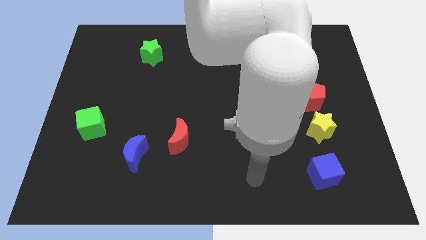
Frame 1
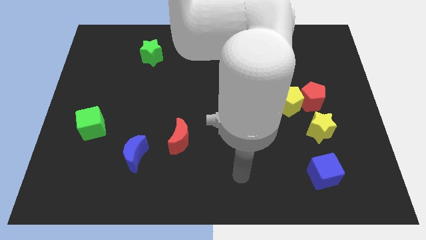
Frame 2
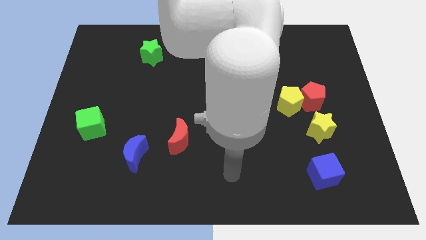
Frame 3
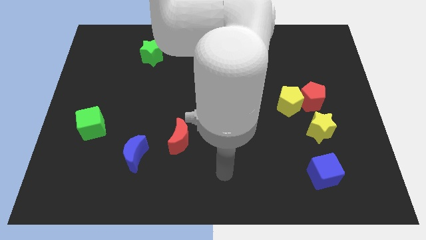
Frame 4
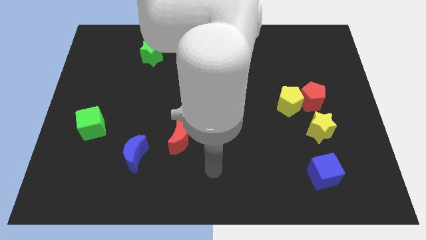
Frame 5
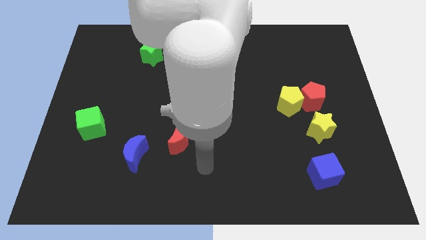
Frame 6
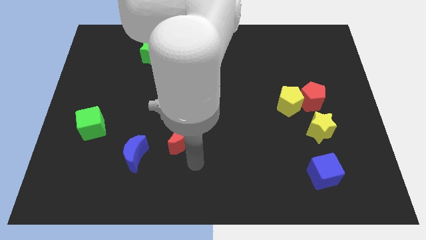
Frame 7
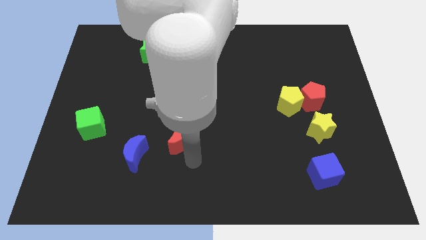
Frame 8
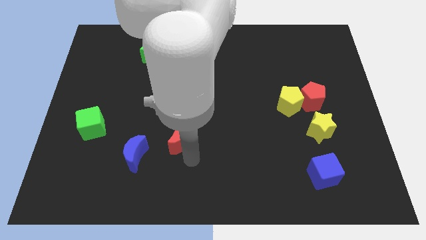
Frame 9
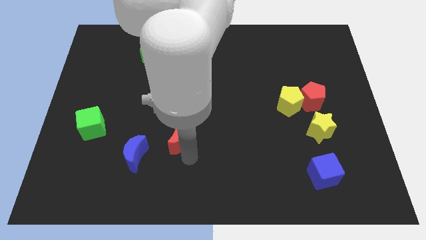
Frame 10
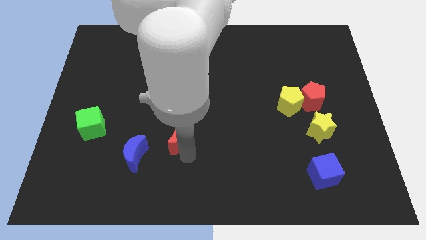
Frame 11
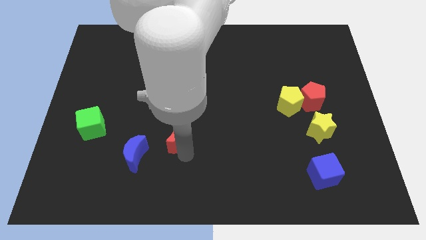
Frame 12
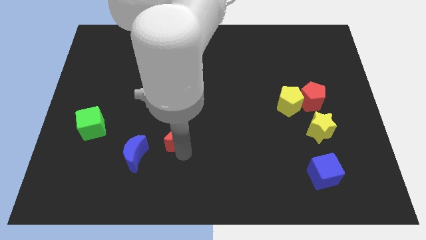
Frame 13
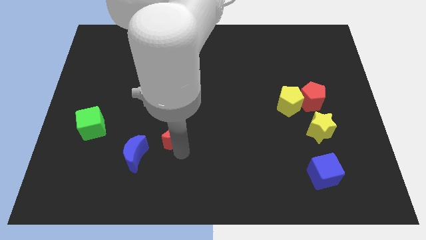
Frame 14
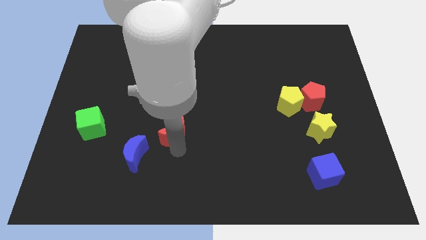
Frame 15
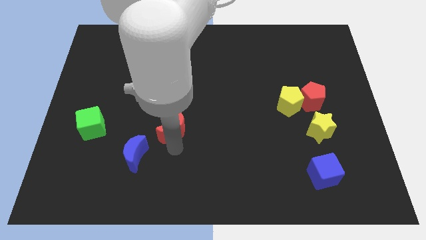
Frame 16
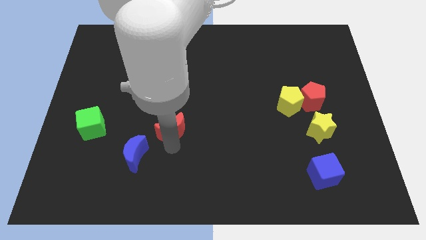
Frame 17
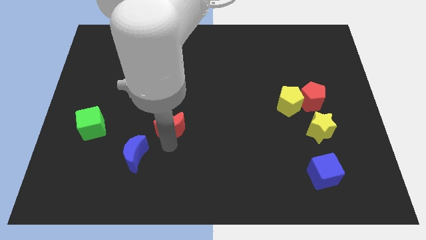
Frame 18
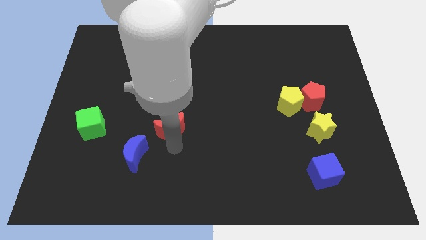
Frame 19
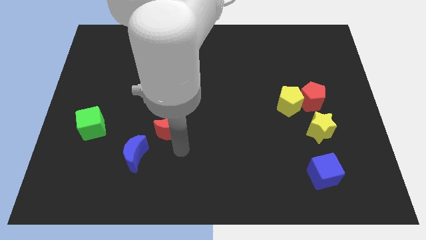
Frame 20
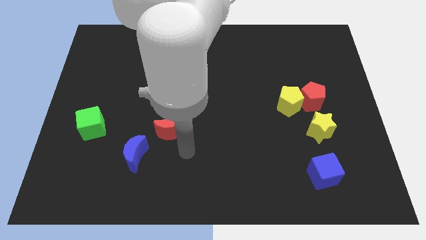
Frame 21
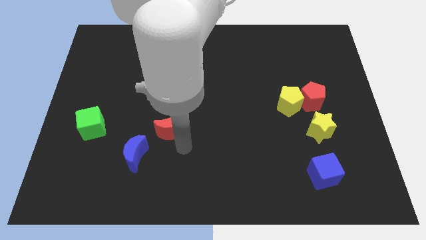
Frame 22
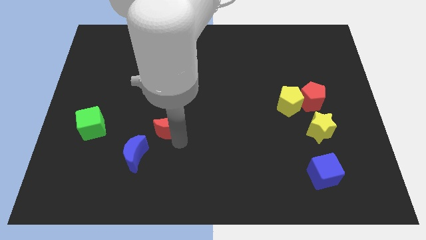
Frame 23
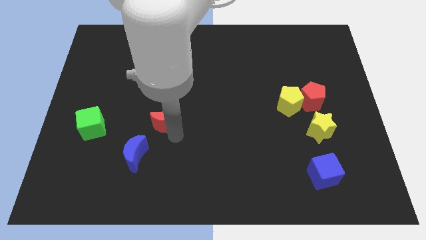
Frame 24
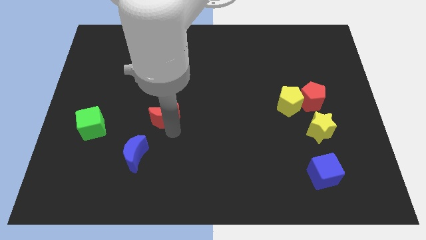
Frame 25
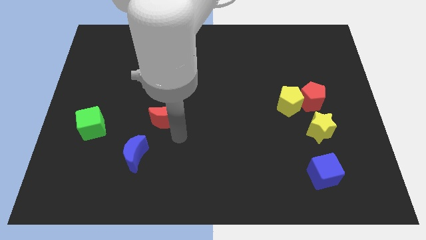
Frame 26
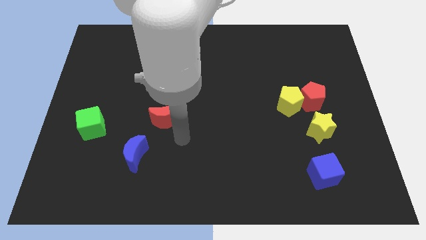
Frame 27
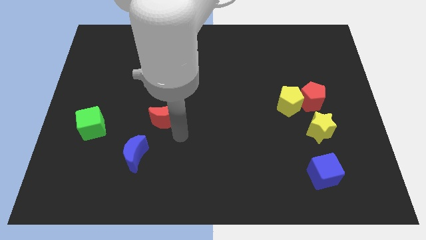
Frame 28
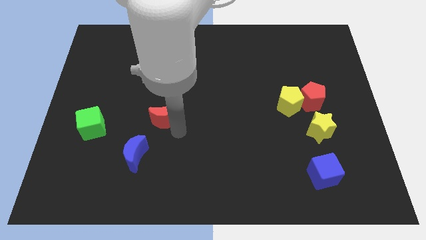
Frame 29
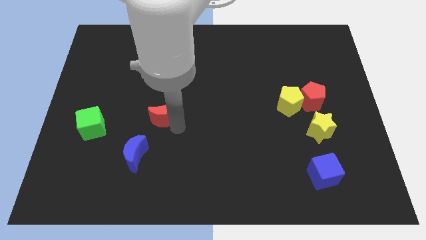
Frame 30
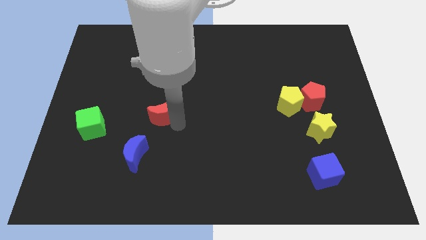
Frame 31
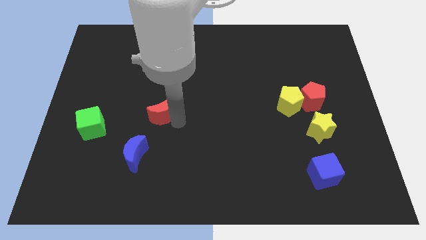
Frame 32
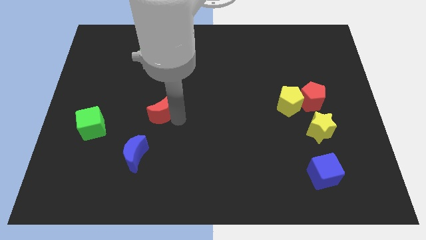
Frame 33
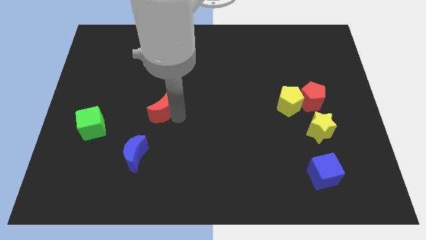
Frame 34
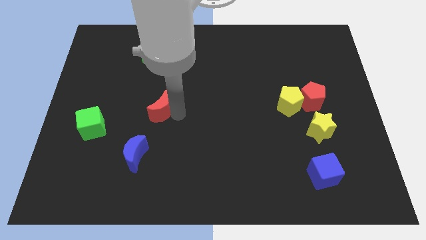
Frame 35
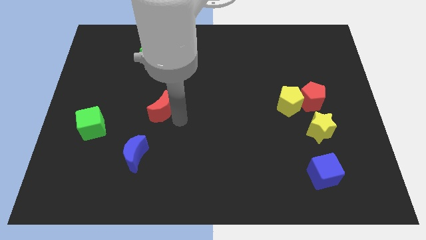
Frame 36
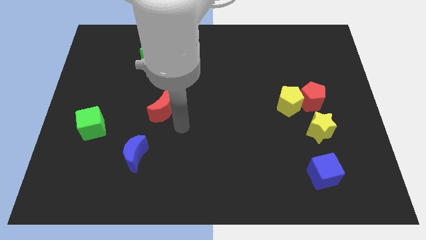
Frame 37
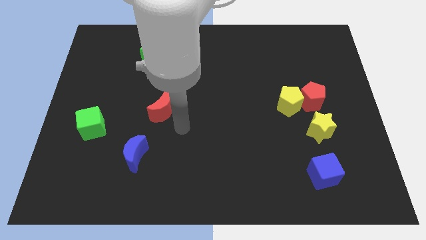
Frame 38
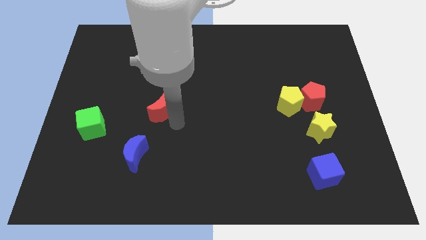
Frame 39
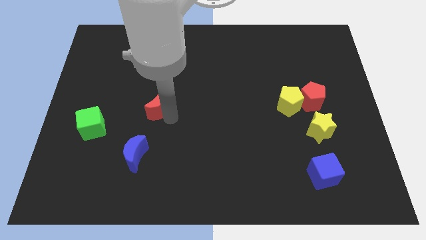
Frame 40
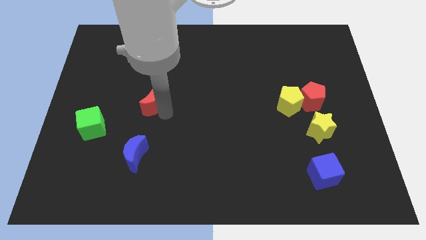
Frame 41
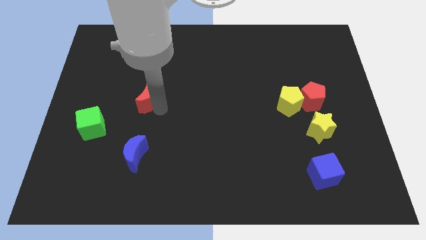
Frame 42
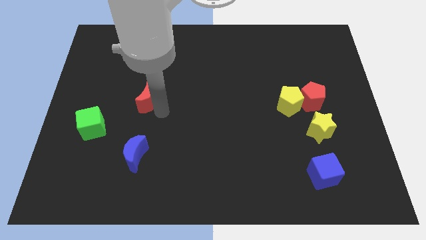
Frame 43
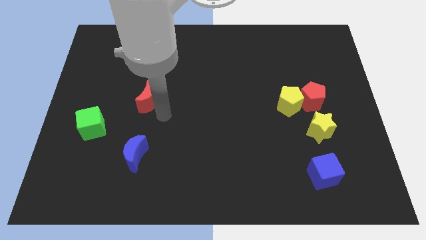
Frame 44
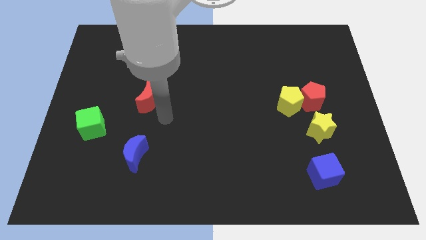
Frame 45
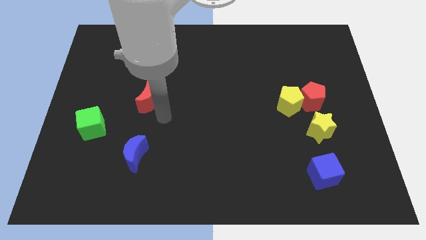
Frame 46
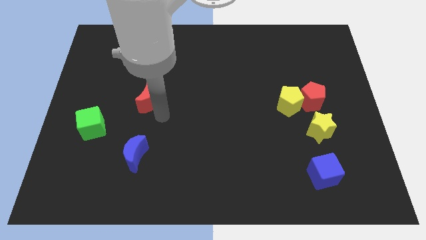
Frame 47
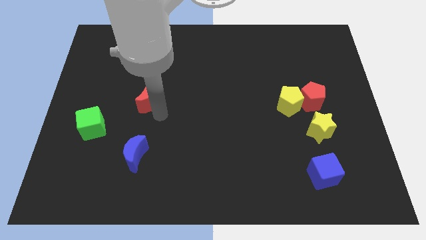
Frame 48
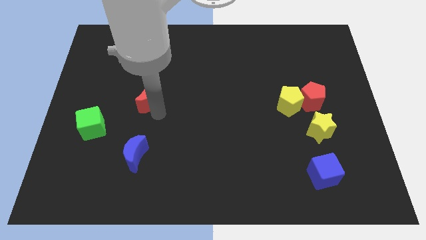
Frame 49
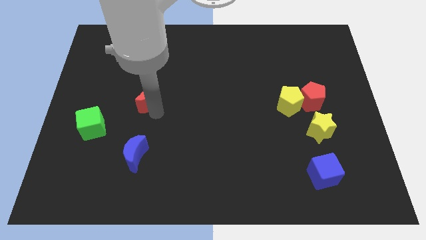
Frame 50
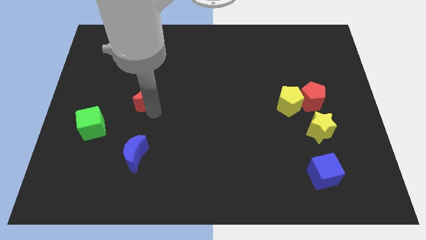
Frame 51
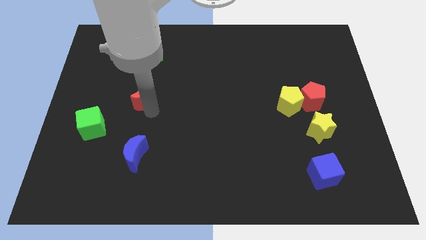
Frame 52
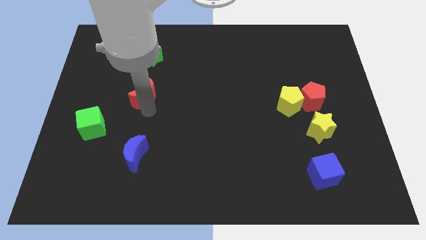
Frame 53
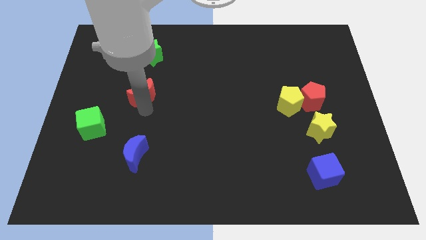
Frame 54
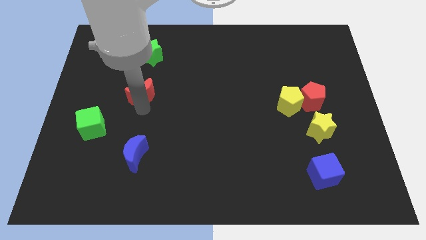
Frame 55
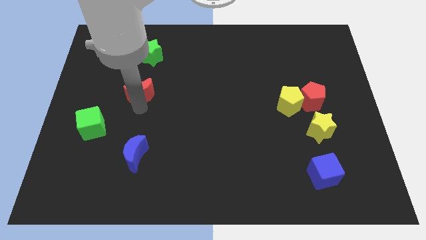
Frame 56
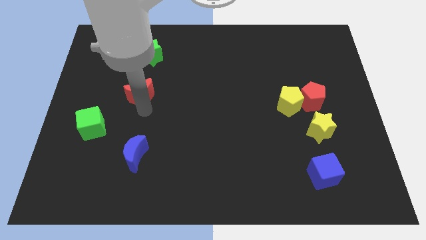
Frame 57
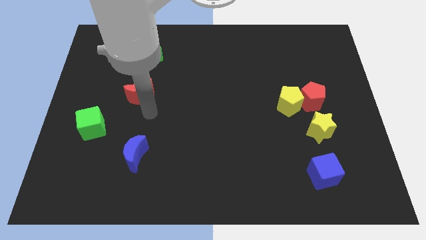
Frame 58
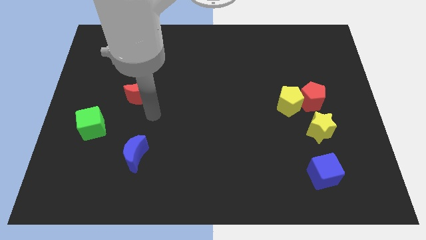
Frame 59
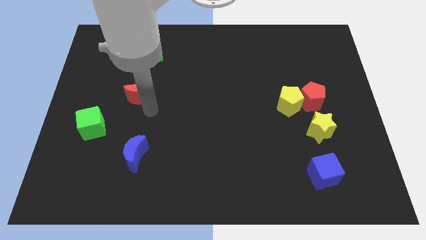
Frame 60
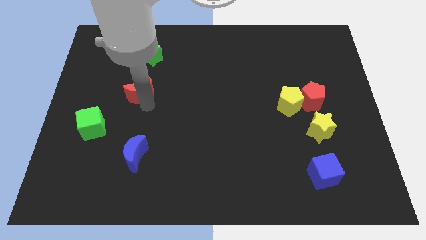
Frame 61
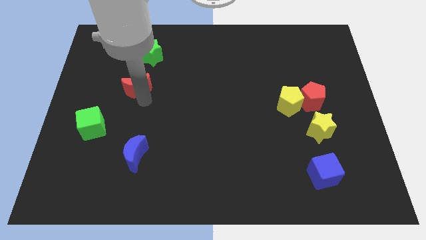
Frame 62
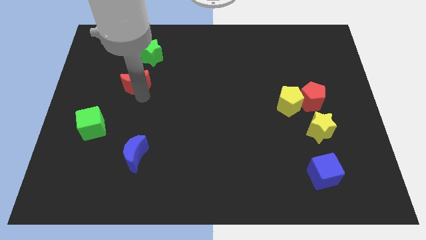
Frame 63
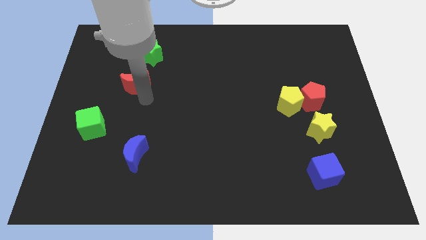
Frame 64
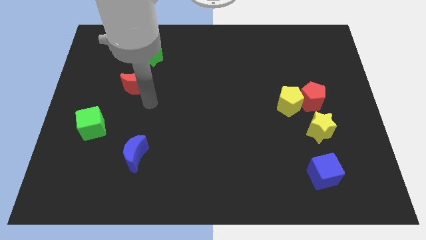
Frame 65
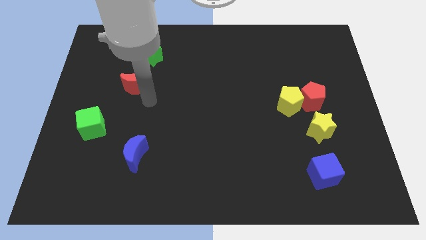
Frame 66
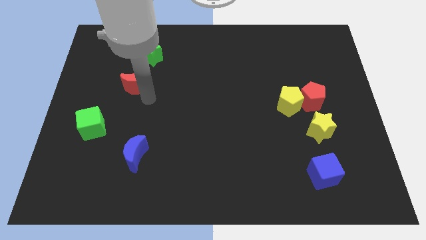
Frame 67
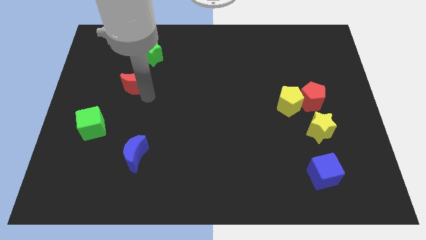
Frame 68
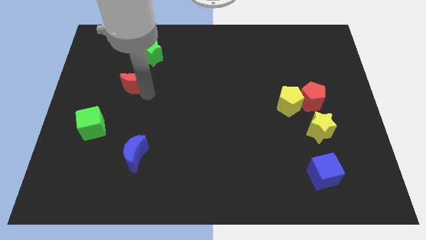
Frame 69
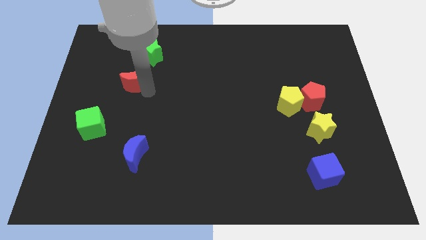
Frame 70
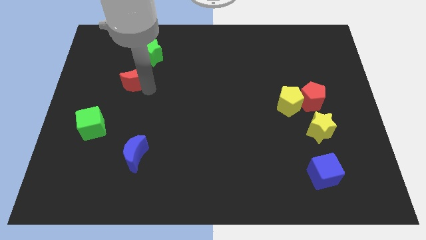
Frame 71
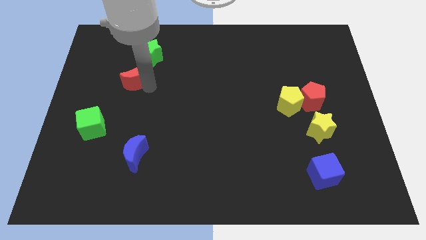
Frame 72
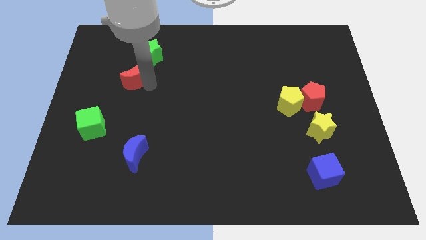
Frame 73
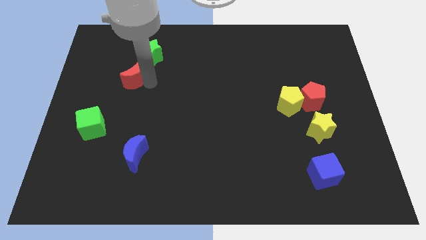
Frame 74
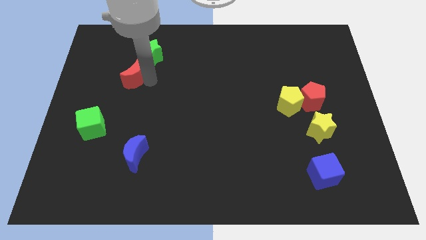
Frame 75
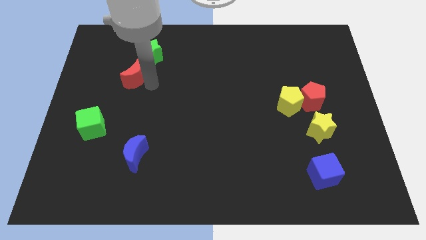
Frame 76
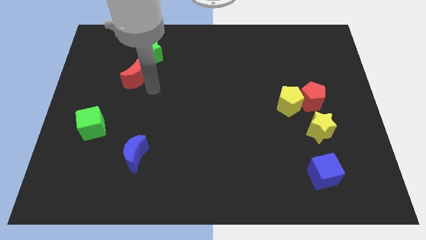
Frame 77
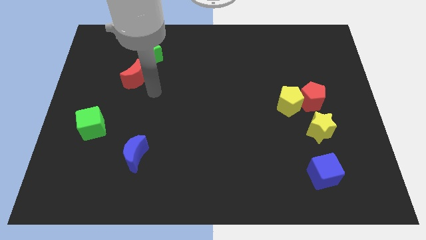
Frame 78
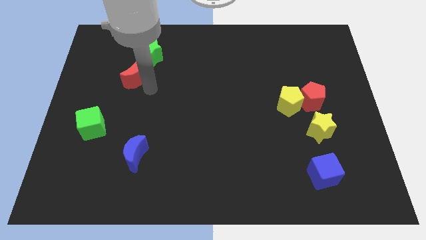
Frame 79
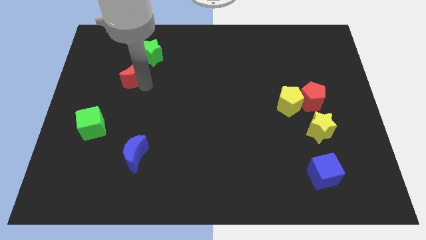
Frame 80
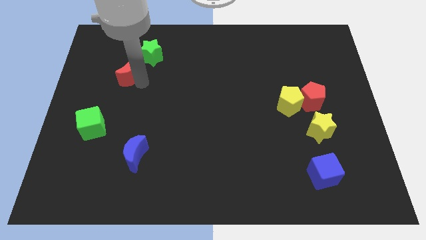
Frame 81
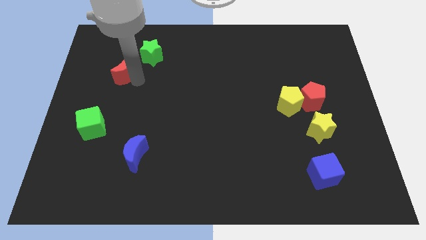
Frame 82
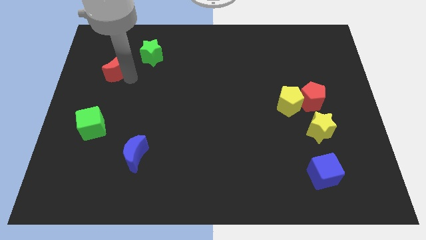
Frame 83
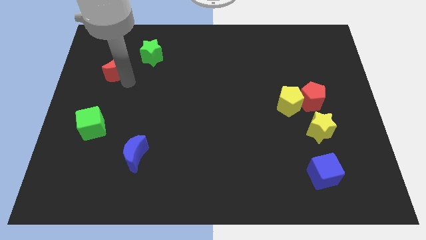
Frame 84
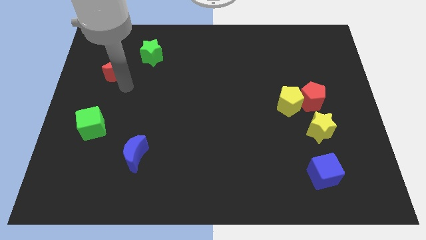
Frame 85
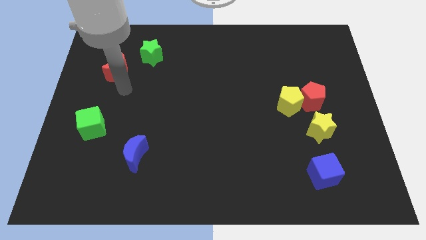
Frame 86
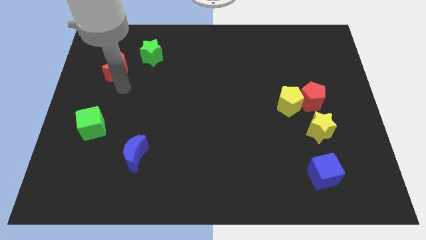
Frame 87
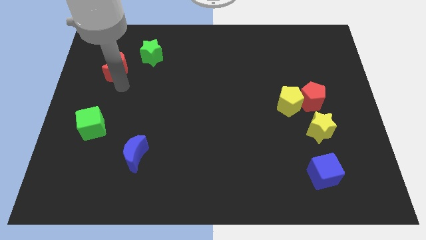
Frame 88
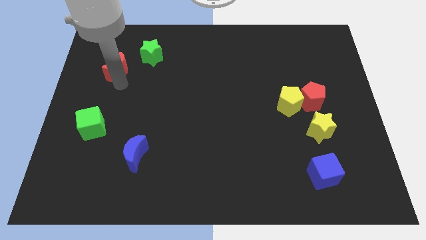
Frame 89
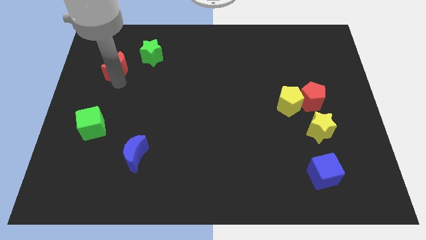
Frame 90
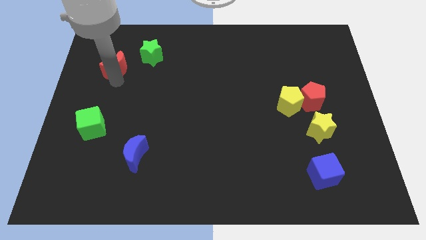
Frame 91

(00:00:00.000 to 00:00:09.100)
slide the red moon left of the green star
